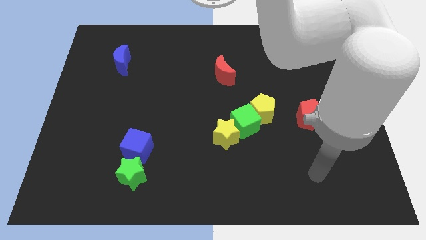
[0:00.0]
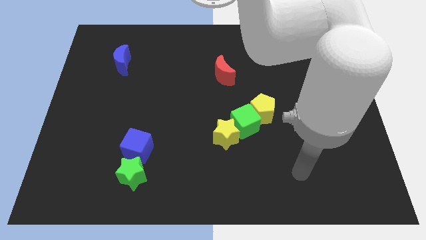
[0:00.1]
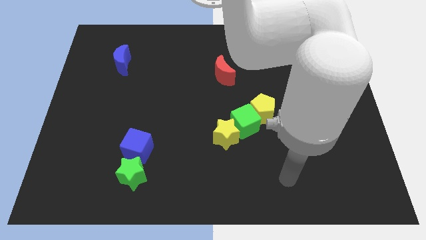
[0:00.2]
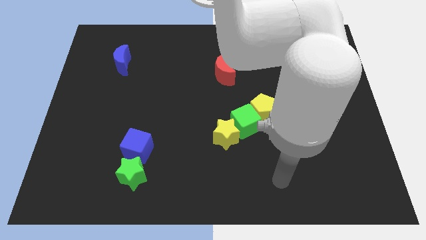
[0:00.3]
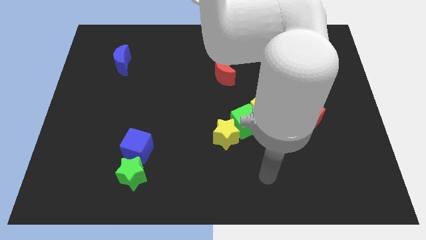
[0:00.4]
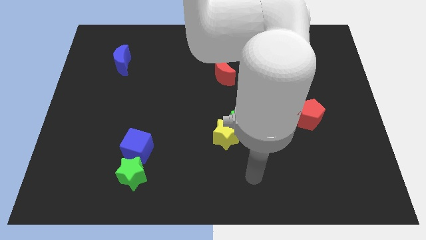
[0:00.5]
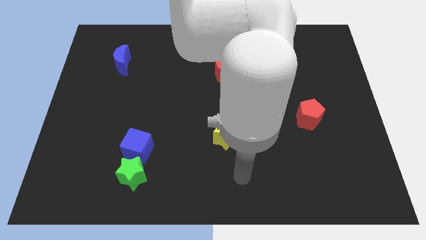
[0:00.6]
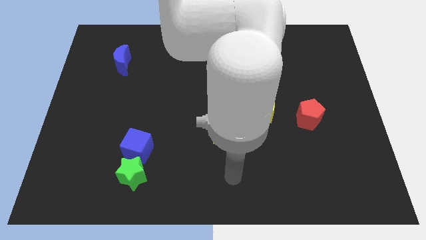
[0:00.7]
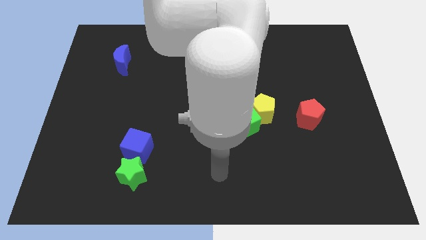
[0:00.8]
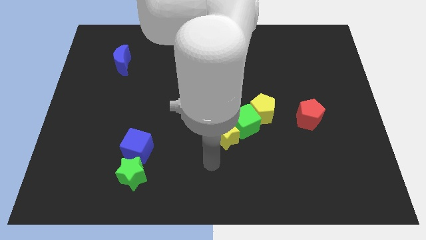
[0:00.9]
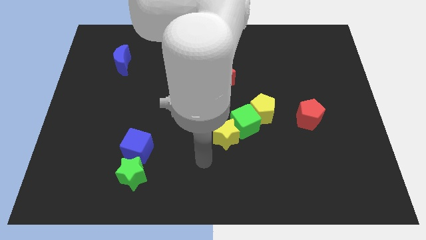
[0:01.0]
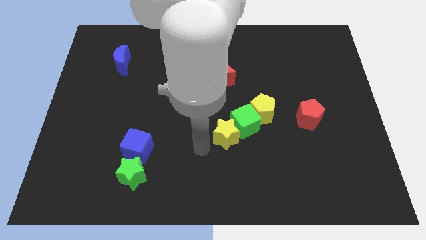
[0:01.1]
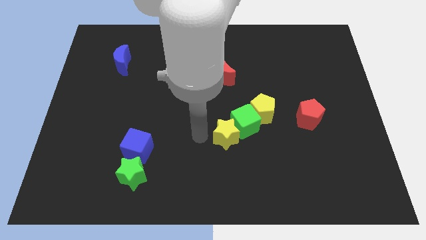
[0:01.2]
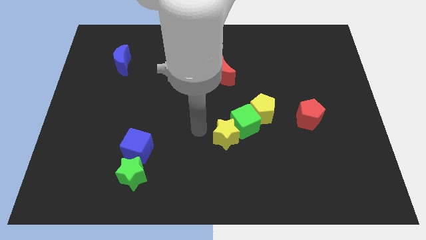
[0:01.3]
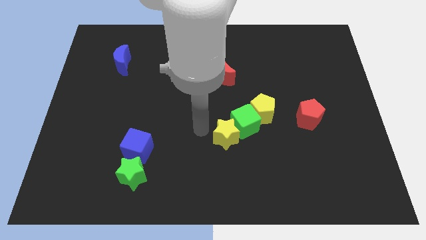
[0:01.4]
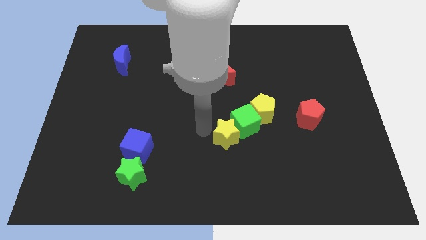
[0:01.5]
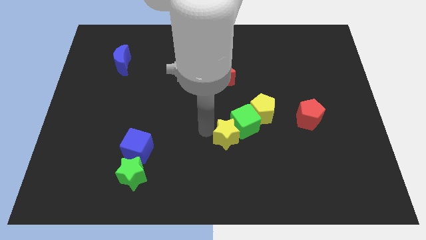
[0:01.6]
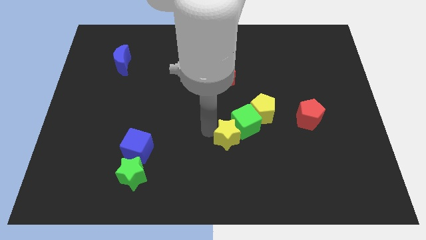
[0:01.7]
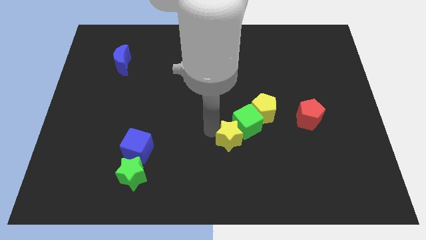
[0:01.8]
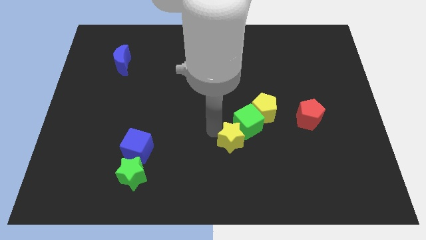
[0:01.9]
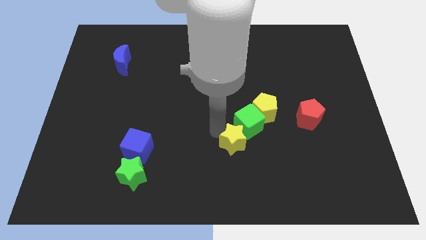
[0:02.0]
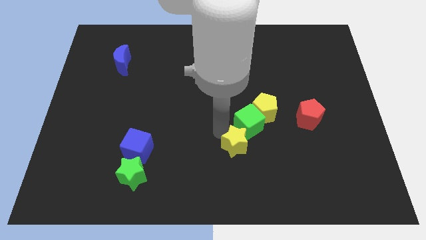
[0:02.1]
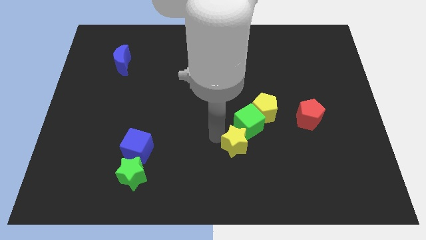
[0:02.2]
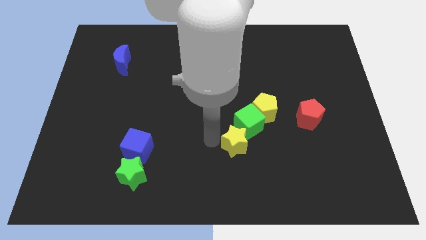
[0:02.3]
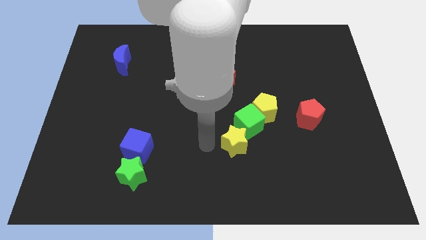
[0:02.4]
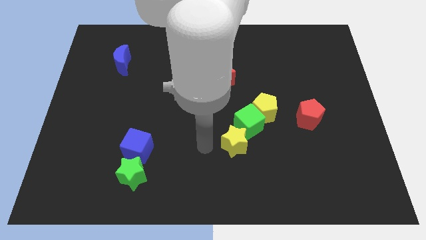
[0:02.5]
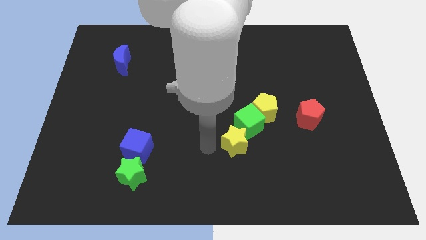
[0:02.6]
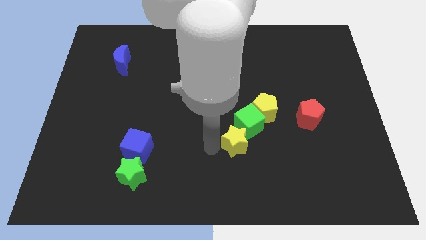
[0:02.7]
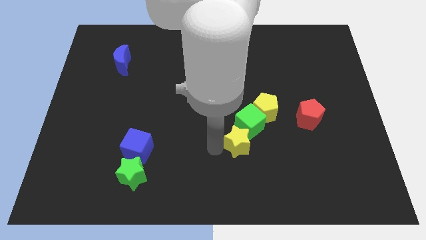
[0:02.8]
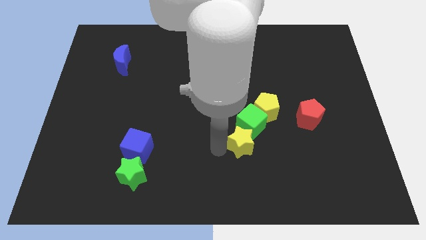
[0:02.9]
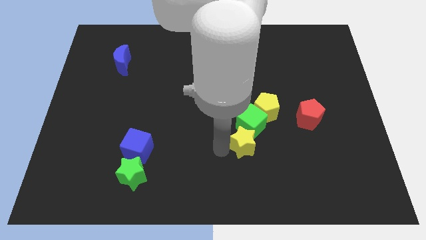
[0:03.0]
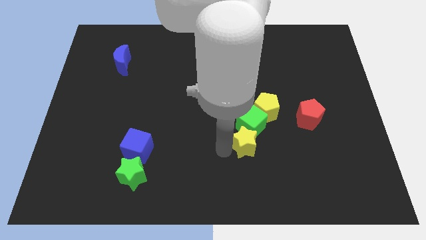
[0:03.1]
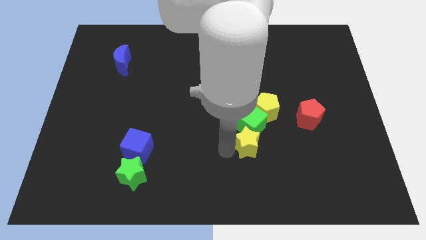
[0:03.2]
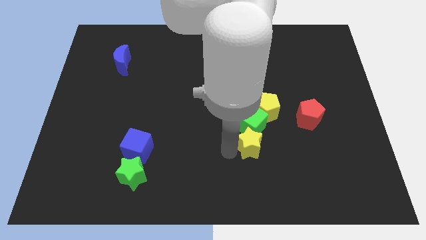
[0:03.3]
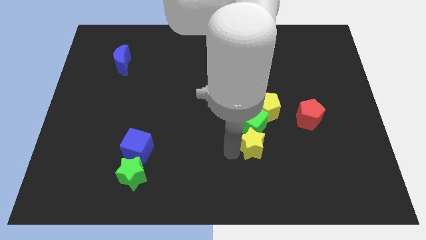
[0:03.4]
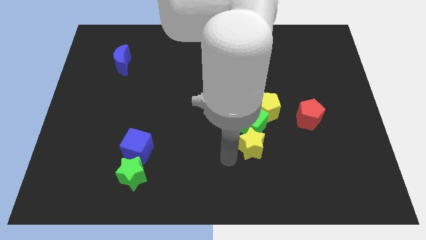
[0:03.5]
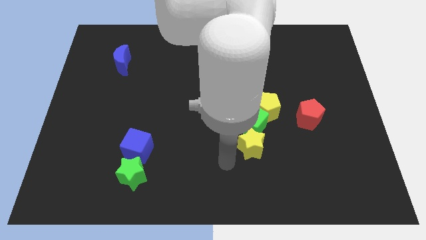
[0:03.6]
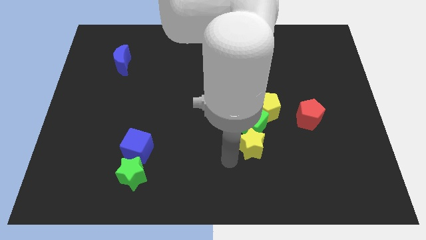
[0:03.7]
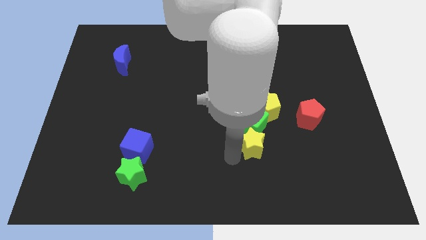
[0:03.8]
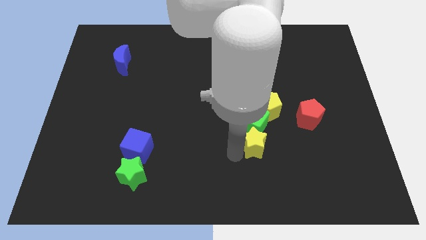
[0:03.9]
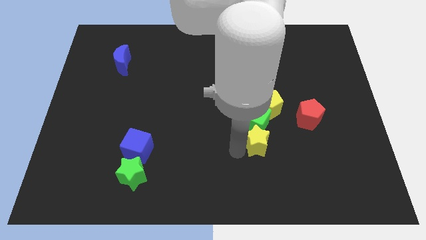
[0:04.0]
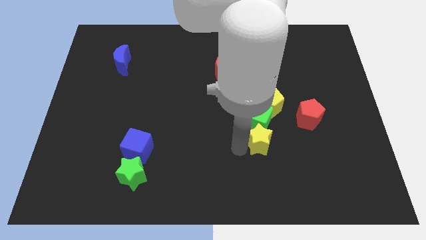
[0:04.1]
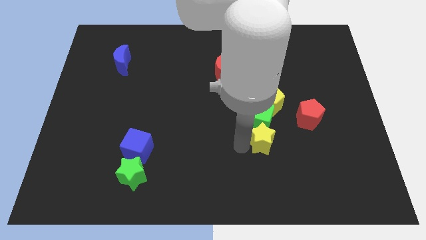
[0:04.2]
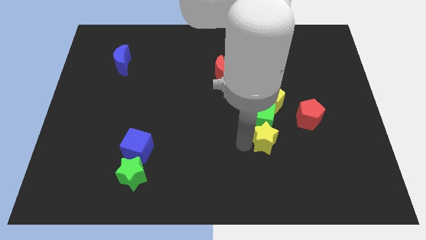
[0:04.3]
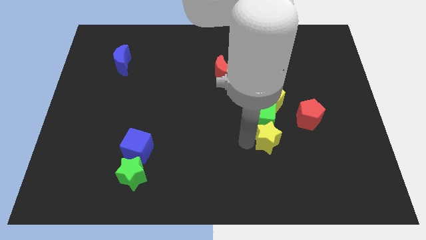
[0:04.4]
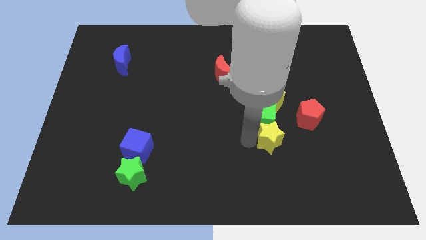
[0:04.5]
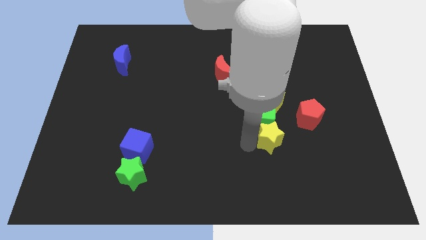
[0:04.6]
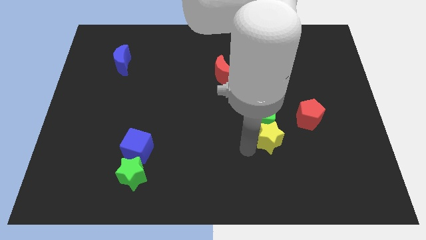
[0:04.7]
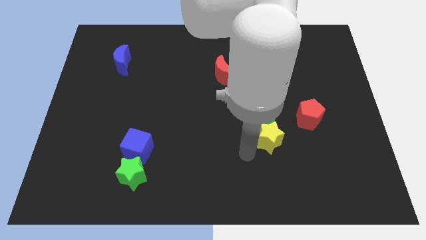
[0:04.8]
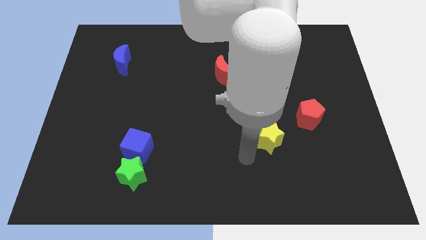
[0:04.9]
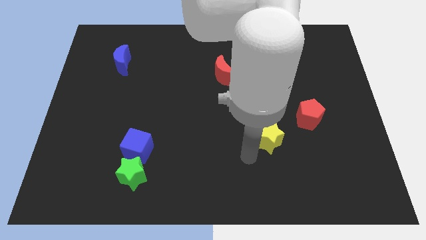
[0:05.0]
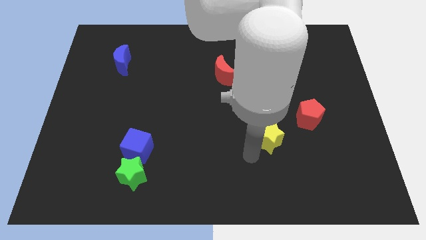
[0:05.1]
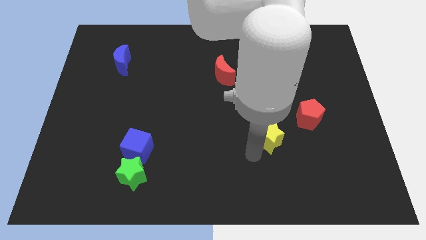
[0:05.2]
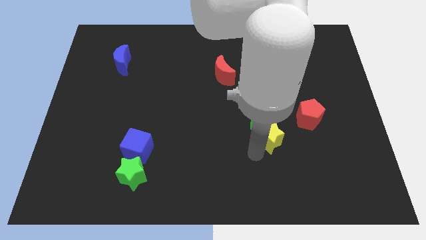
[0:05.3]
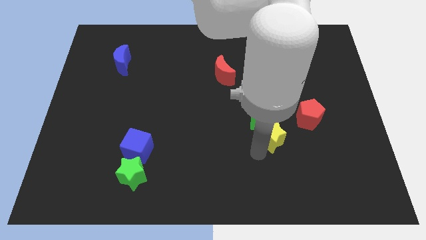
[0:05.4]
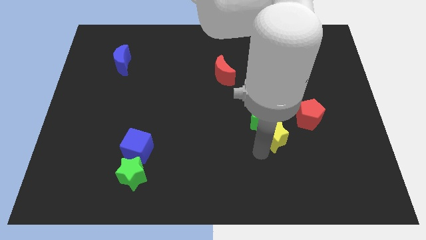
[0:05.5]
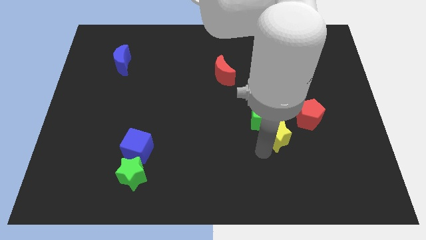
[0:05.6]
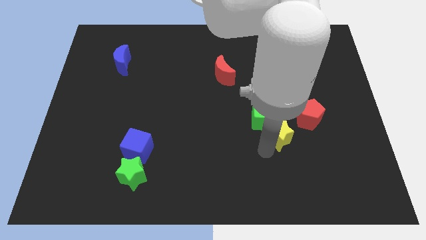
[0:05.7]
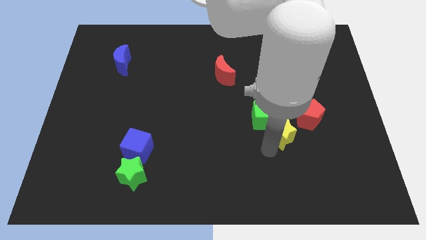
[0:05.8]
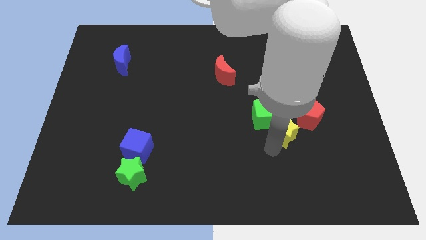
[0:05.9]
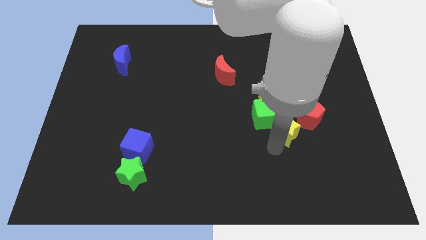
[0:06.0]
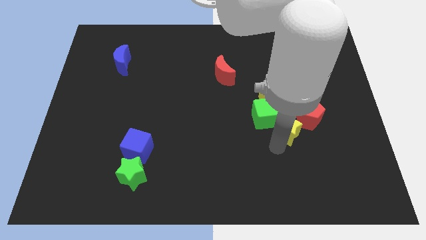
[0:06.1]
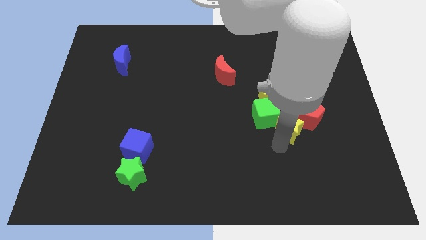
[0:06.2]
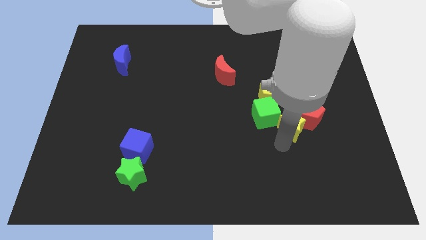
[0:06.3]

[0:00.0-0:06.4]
put the yellow star to the red pentagon

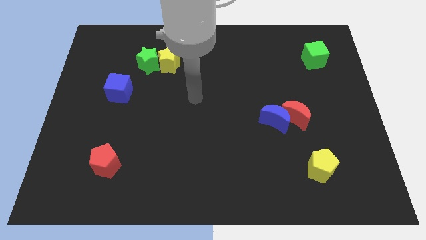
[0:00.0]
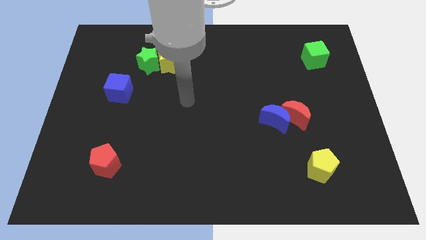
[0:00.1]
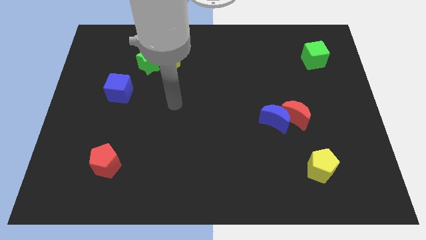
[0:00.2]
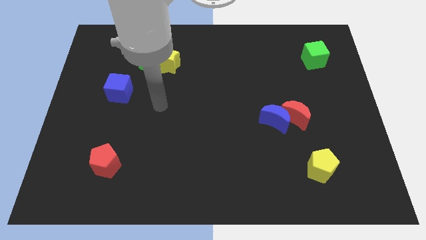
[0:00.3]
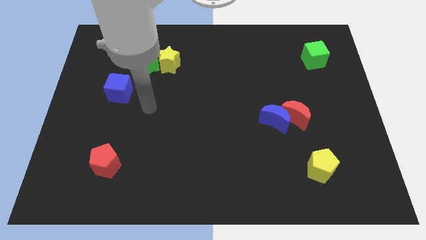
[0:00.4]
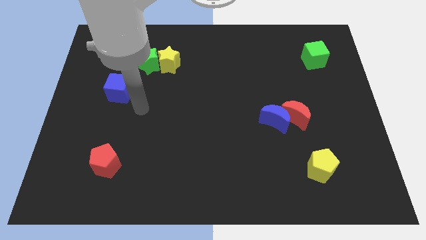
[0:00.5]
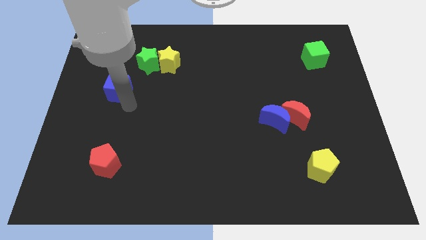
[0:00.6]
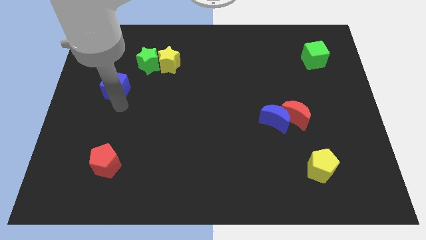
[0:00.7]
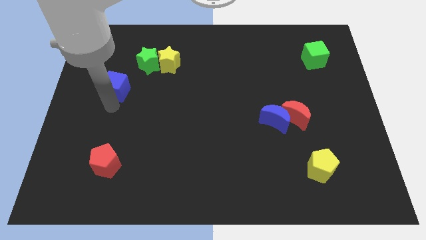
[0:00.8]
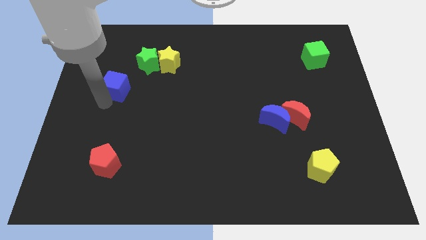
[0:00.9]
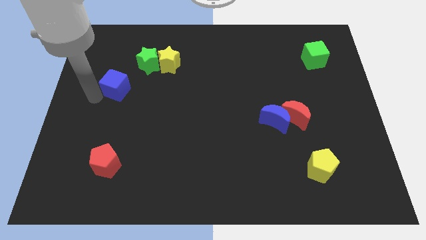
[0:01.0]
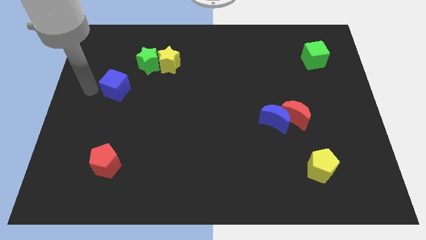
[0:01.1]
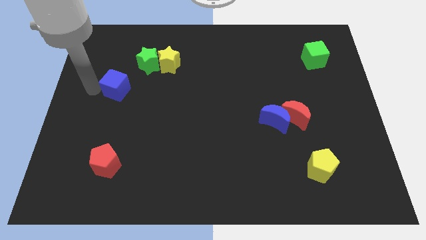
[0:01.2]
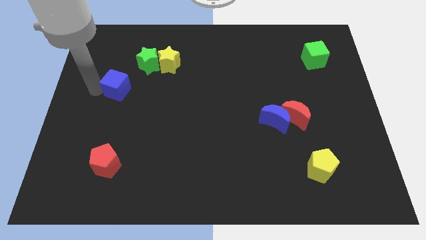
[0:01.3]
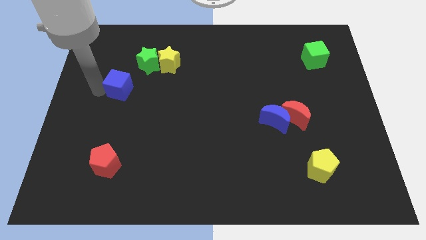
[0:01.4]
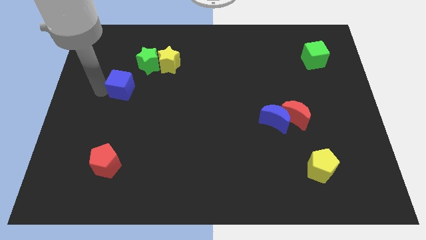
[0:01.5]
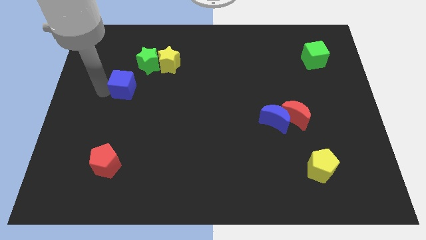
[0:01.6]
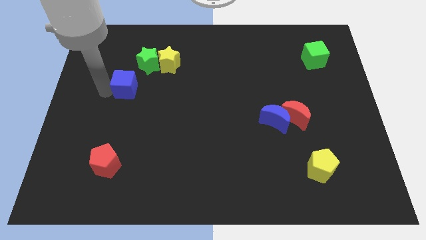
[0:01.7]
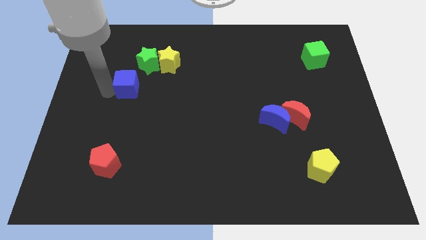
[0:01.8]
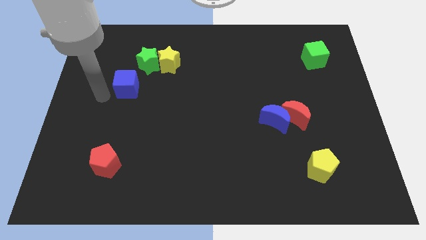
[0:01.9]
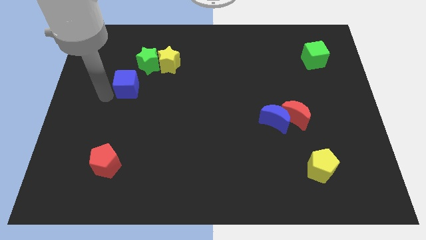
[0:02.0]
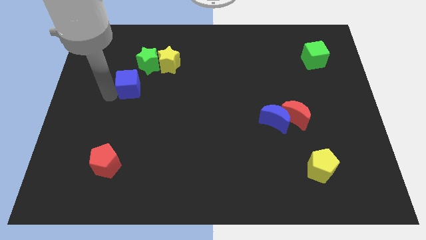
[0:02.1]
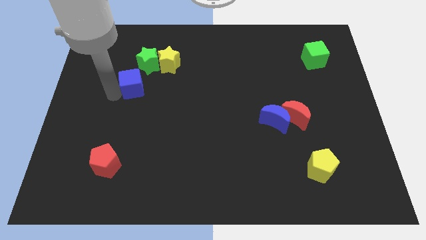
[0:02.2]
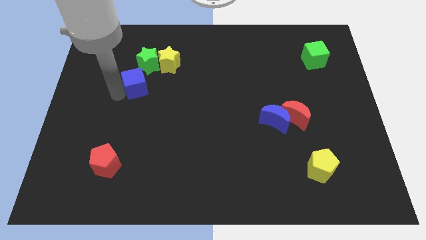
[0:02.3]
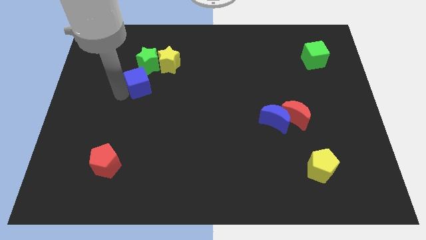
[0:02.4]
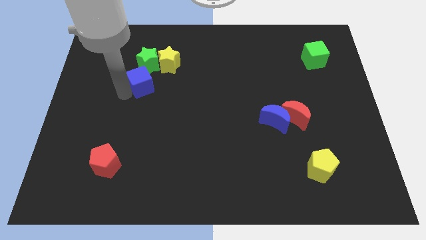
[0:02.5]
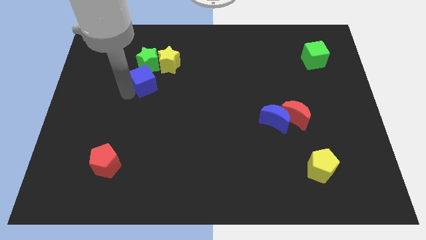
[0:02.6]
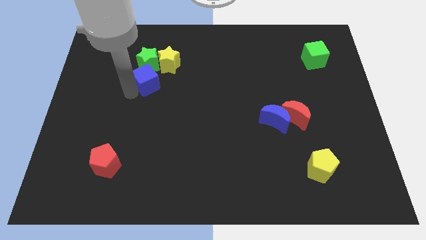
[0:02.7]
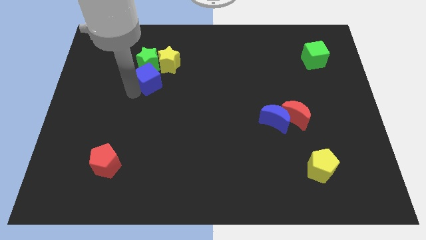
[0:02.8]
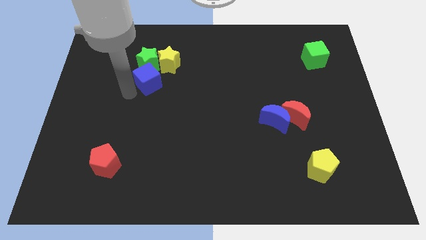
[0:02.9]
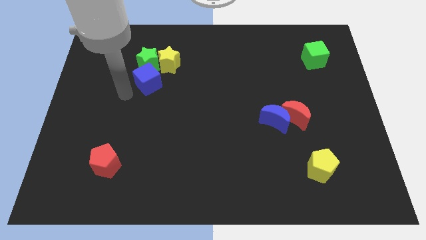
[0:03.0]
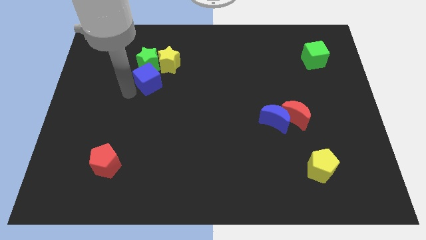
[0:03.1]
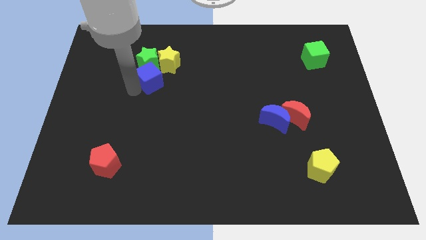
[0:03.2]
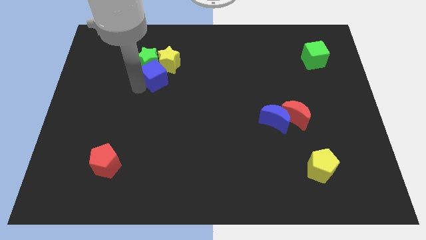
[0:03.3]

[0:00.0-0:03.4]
slide the blue cube next to the yellow star
